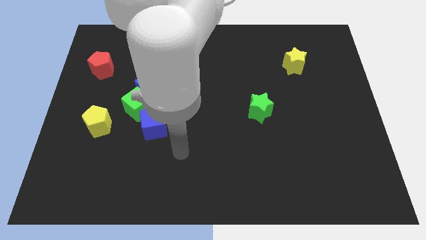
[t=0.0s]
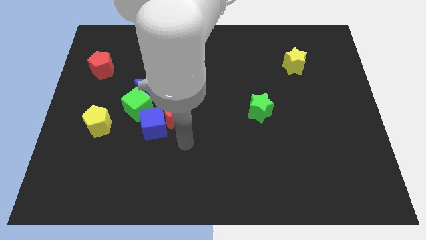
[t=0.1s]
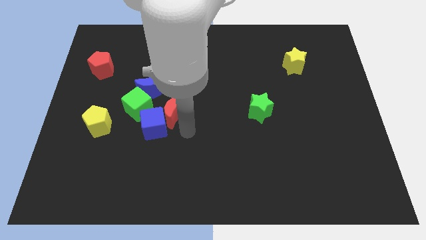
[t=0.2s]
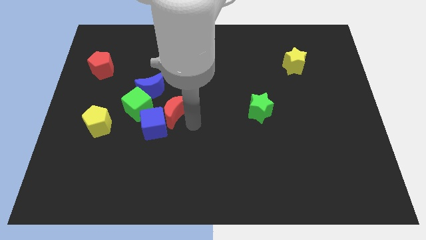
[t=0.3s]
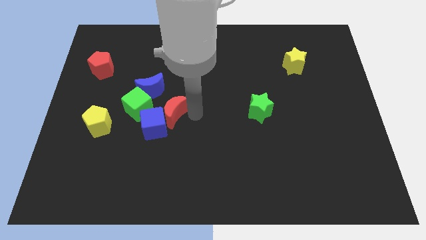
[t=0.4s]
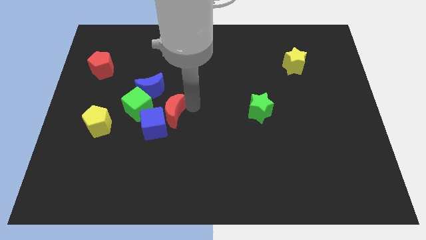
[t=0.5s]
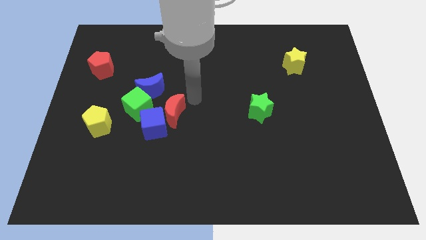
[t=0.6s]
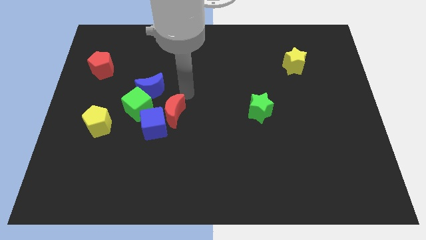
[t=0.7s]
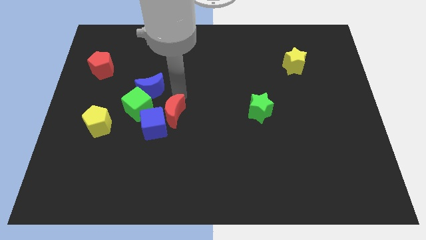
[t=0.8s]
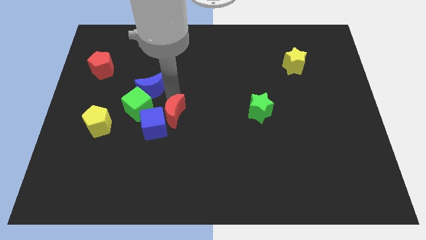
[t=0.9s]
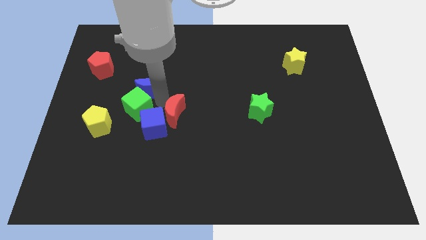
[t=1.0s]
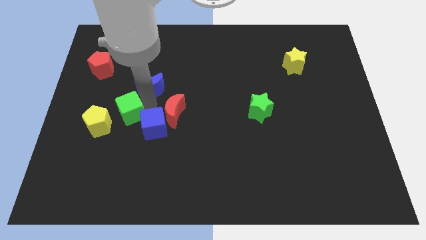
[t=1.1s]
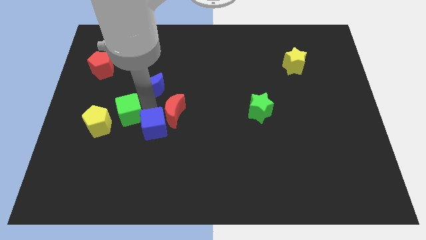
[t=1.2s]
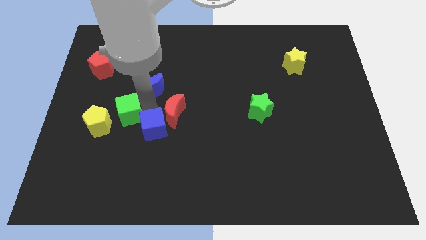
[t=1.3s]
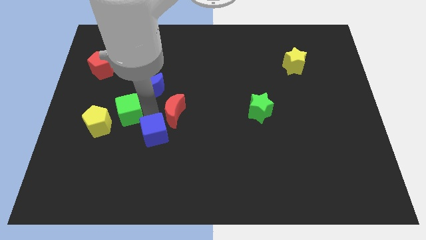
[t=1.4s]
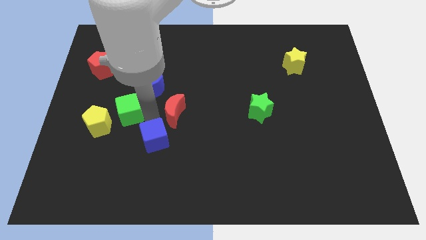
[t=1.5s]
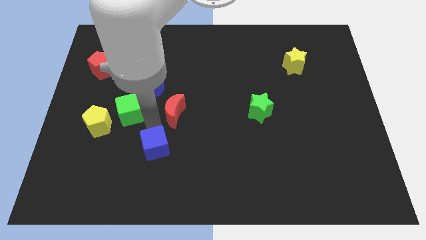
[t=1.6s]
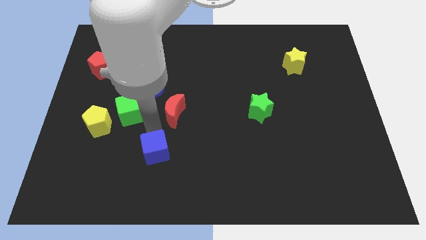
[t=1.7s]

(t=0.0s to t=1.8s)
pull the blue cube apart from the red moon and green cube

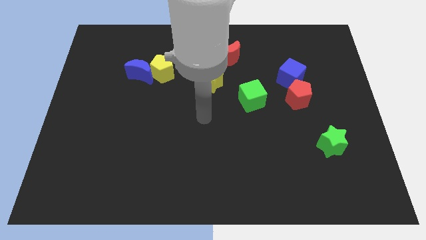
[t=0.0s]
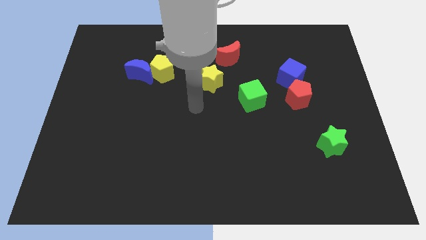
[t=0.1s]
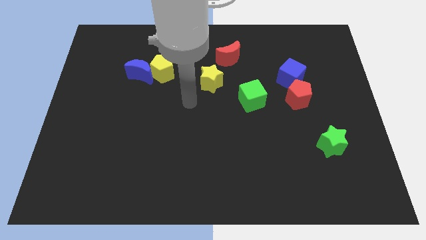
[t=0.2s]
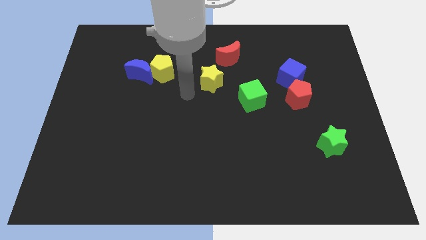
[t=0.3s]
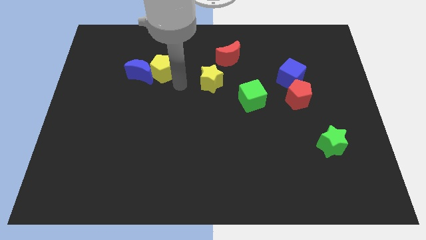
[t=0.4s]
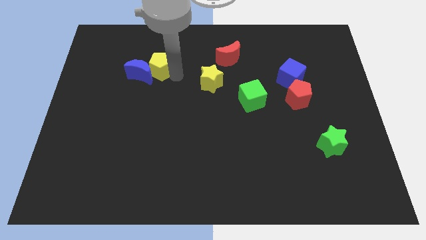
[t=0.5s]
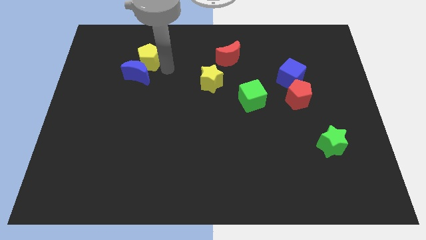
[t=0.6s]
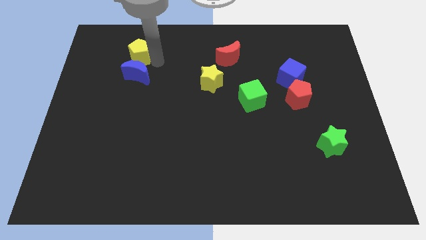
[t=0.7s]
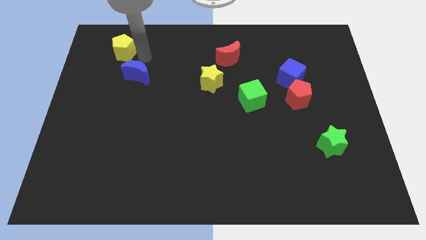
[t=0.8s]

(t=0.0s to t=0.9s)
move the blue moon away from the yellow pentagon

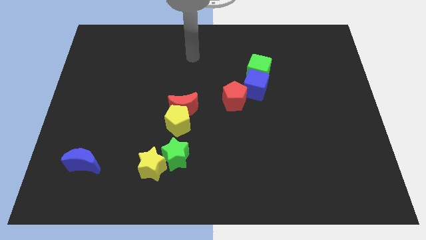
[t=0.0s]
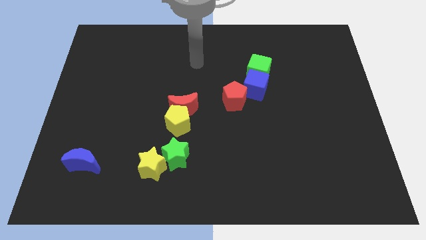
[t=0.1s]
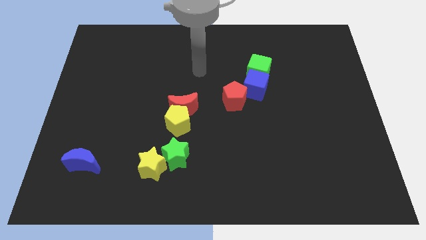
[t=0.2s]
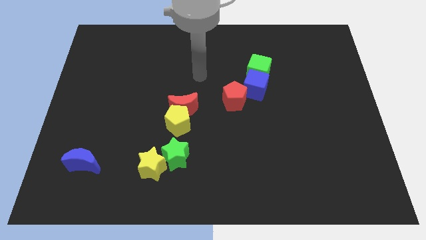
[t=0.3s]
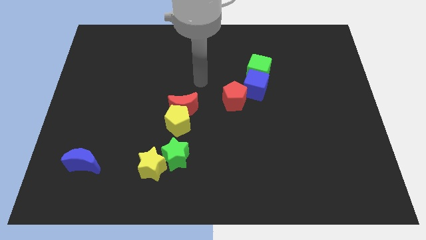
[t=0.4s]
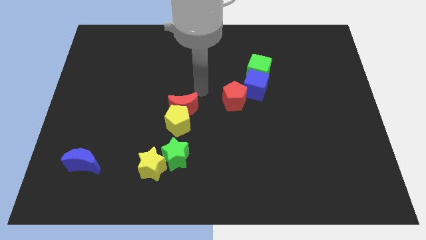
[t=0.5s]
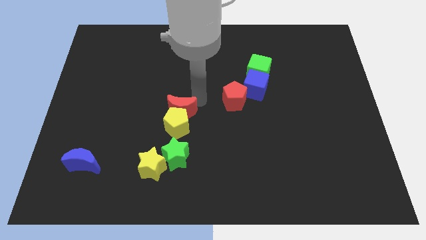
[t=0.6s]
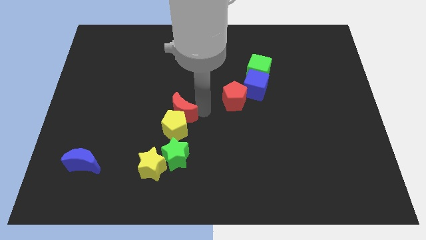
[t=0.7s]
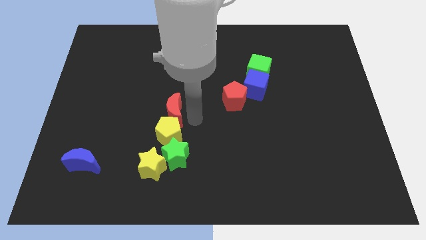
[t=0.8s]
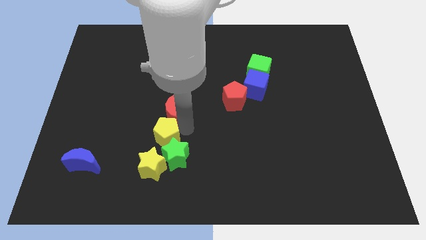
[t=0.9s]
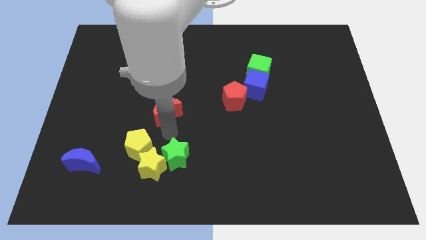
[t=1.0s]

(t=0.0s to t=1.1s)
move the red moon away from the yellow pentagon

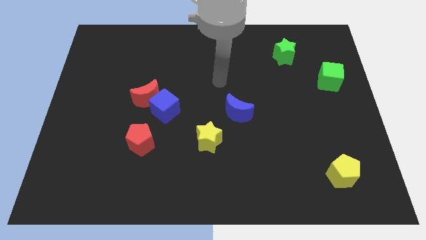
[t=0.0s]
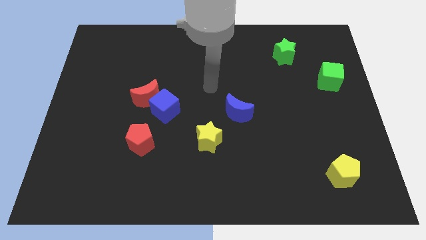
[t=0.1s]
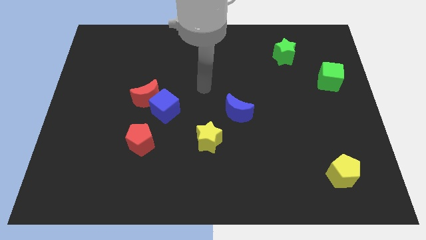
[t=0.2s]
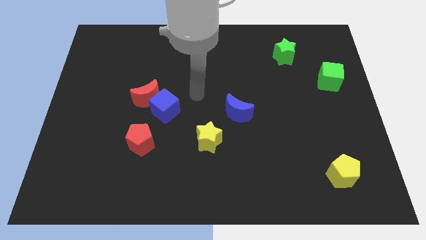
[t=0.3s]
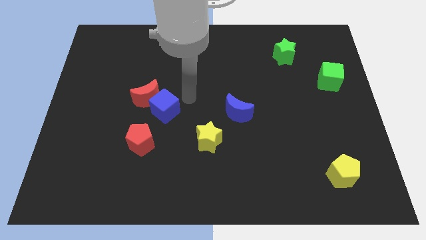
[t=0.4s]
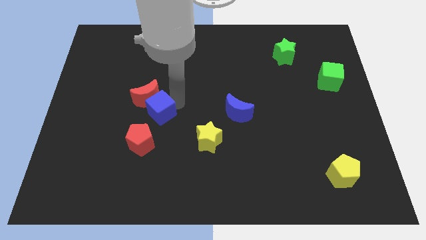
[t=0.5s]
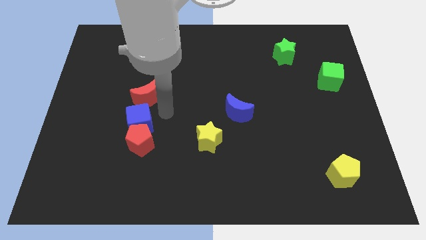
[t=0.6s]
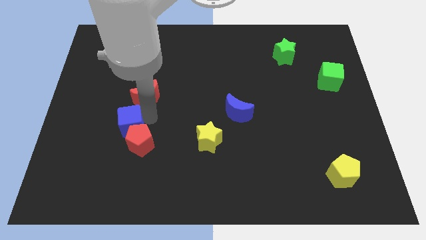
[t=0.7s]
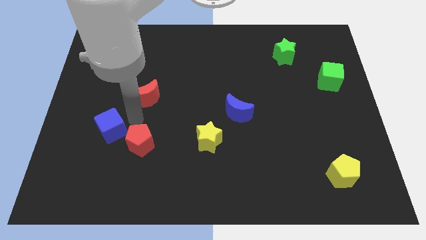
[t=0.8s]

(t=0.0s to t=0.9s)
pull the red moon apart from the blue cube

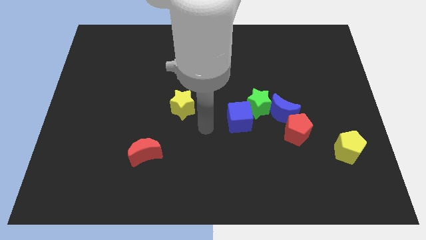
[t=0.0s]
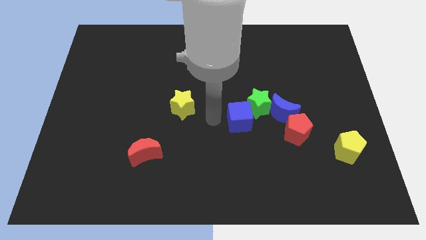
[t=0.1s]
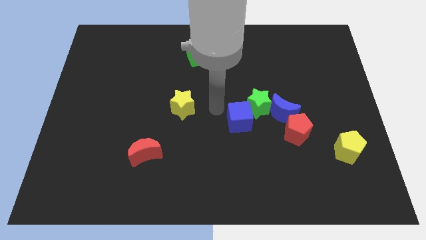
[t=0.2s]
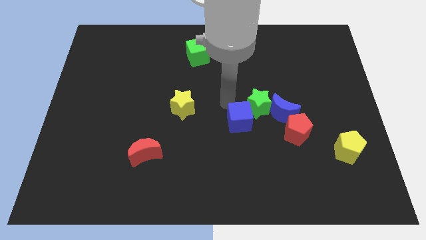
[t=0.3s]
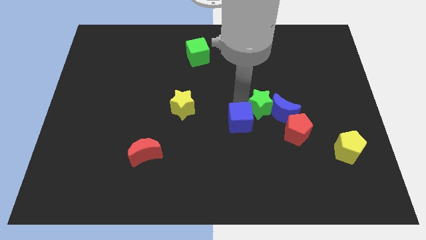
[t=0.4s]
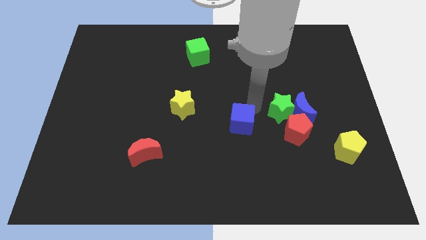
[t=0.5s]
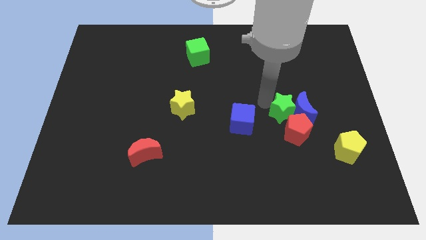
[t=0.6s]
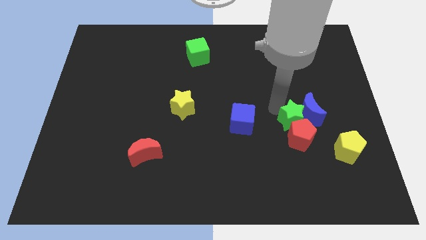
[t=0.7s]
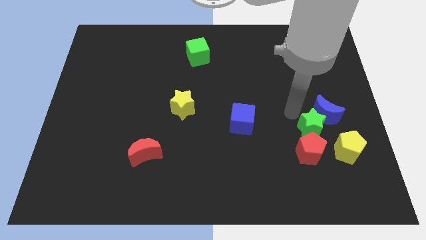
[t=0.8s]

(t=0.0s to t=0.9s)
separate the red pentagon from the blue moon

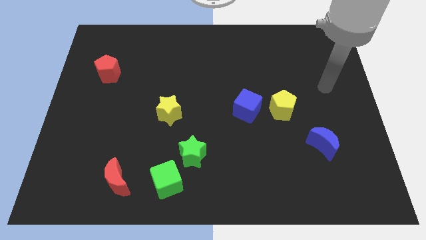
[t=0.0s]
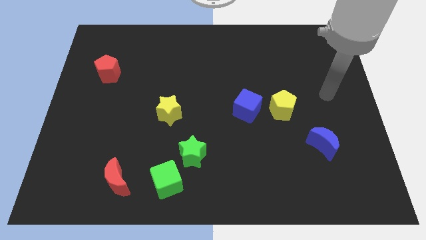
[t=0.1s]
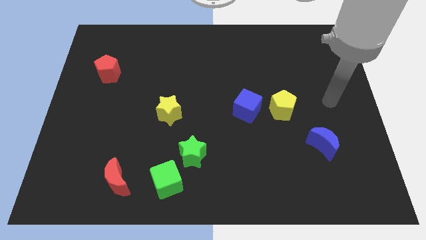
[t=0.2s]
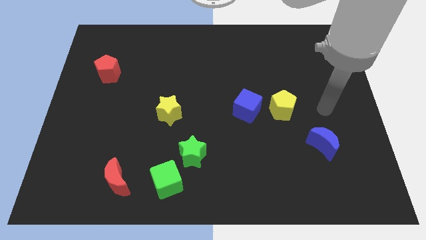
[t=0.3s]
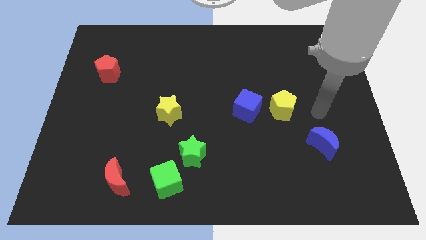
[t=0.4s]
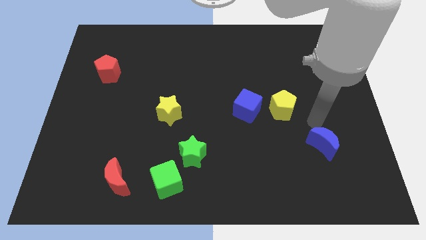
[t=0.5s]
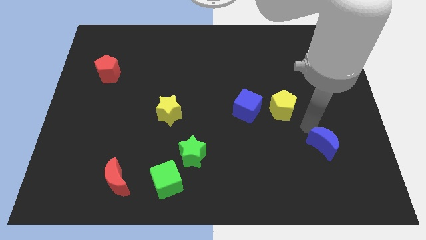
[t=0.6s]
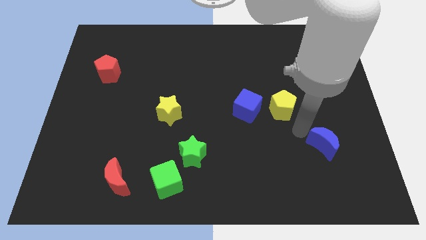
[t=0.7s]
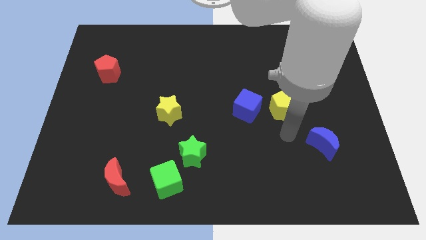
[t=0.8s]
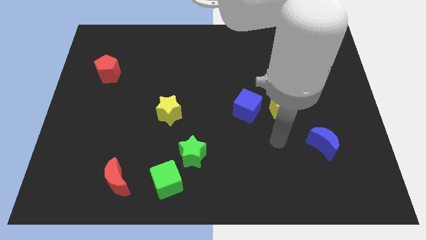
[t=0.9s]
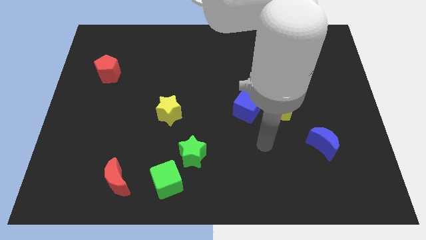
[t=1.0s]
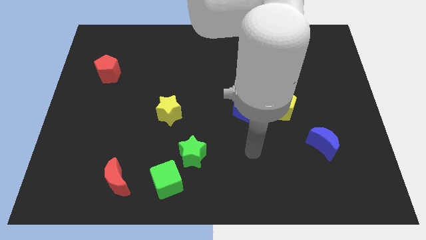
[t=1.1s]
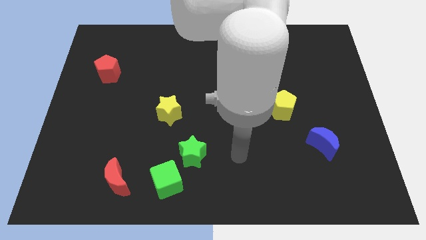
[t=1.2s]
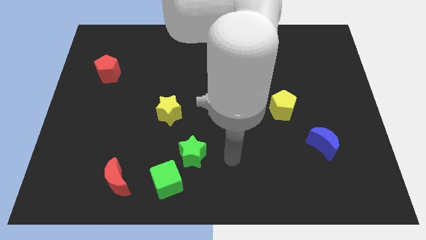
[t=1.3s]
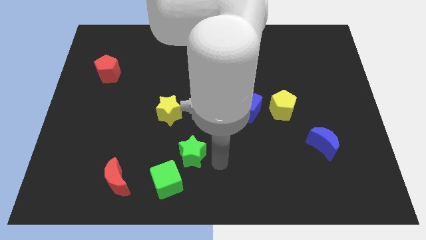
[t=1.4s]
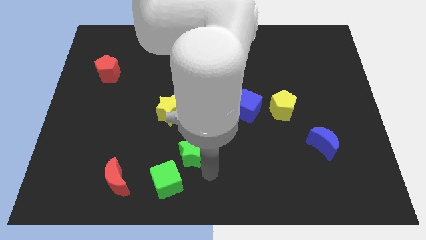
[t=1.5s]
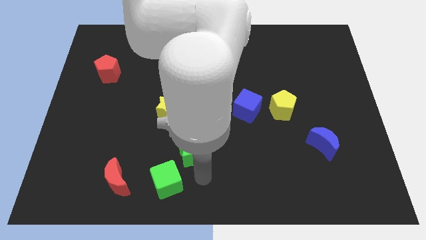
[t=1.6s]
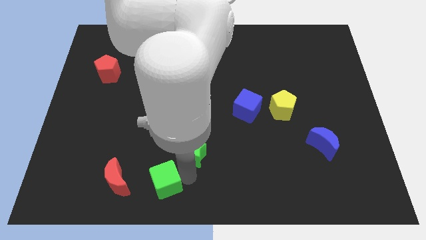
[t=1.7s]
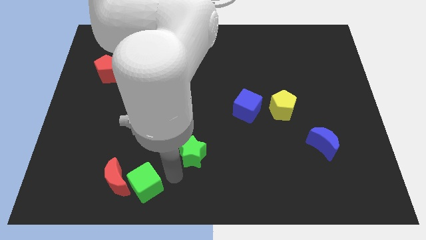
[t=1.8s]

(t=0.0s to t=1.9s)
separate the green star from the green cube

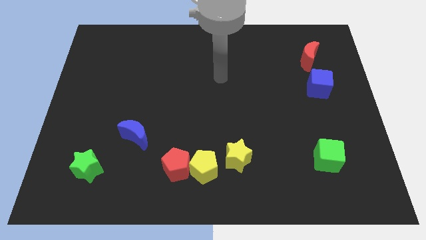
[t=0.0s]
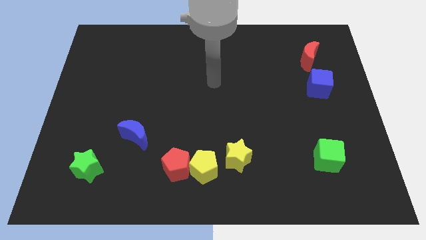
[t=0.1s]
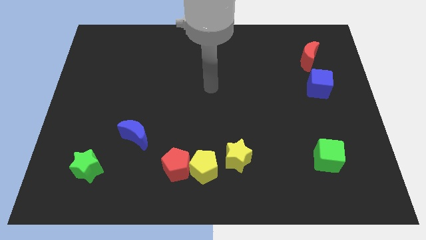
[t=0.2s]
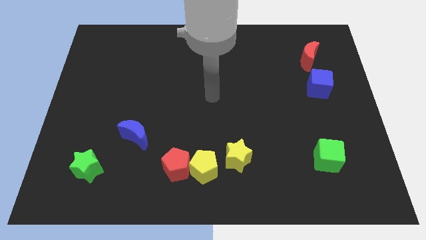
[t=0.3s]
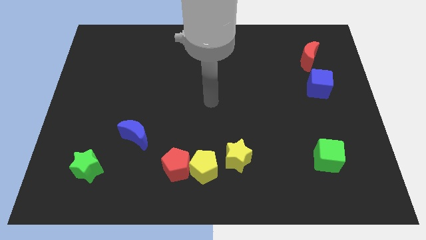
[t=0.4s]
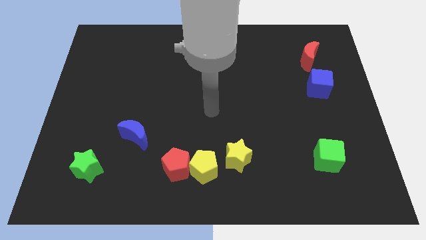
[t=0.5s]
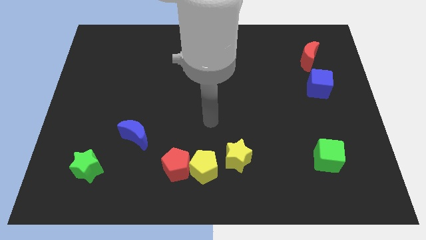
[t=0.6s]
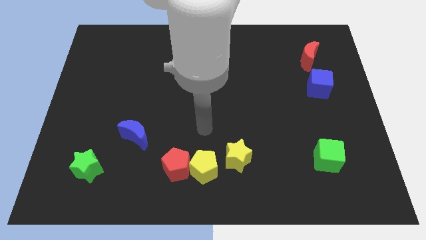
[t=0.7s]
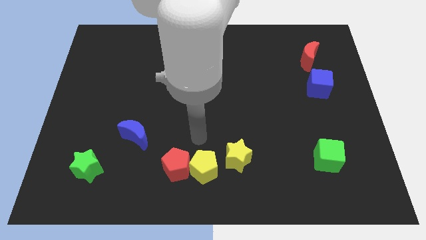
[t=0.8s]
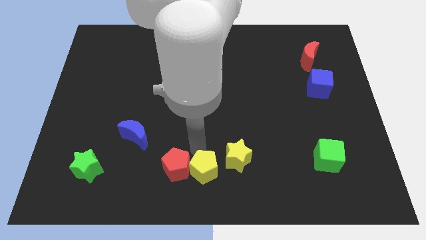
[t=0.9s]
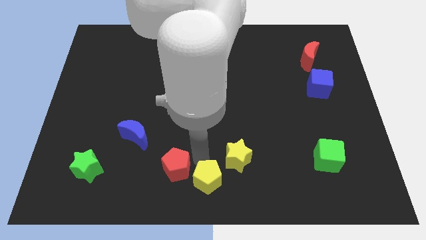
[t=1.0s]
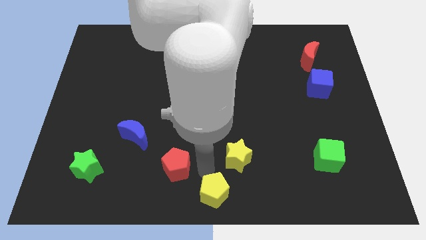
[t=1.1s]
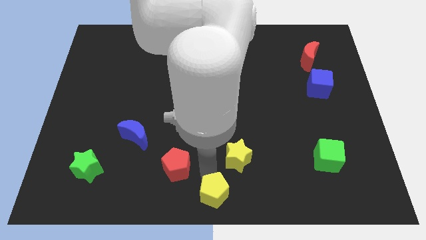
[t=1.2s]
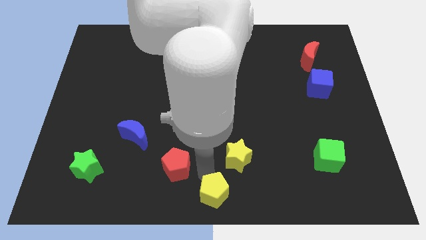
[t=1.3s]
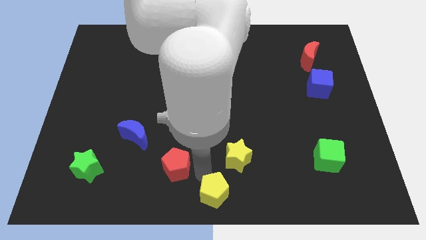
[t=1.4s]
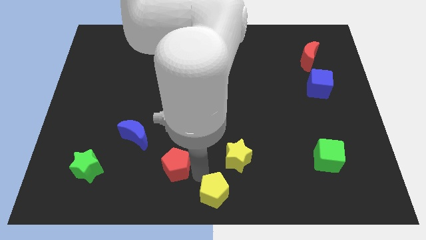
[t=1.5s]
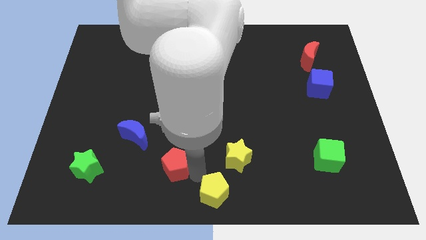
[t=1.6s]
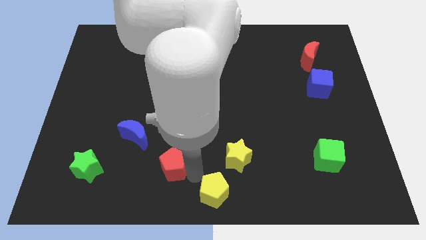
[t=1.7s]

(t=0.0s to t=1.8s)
pull the red pentagon apart from the yellow pentagon
